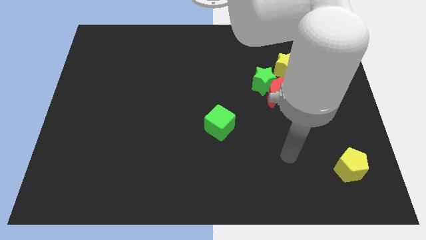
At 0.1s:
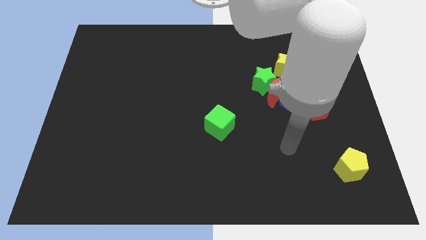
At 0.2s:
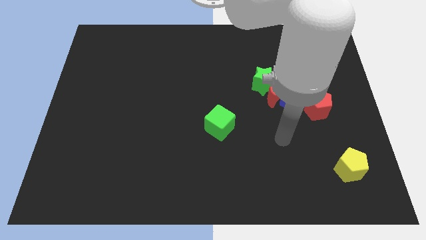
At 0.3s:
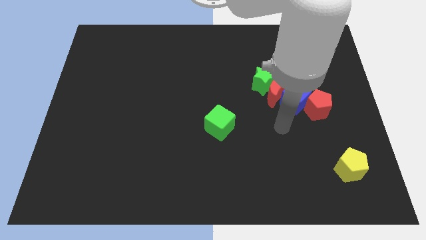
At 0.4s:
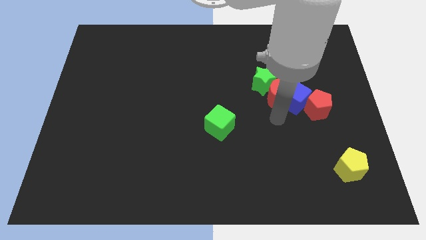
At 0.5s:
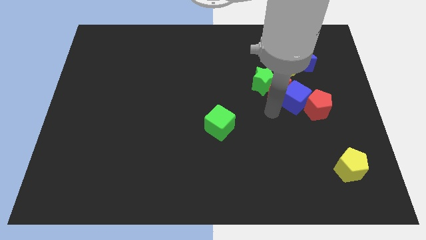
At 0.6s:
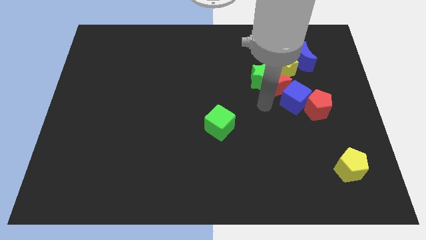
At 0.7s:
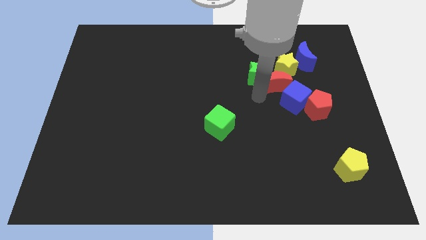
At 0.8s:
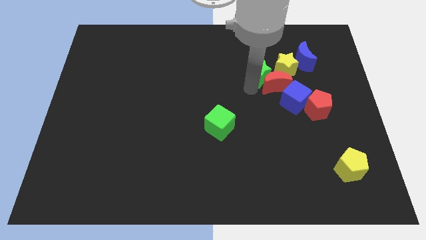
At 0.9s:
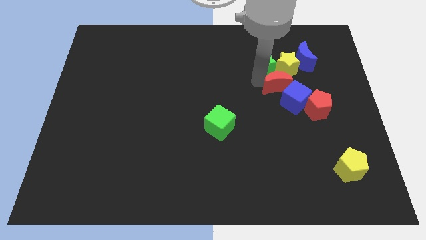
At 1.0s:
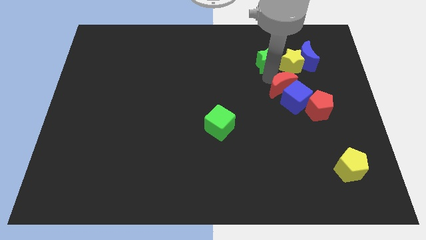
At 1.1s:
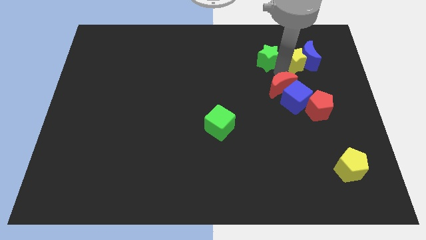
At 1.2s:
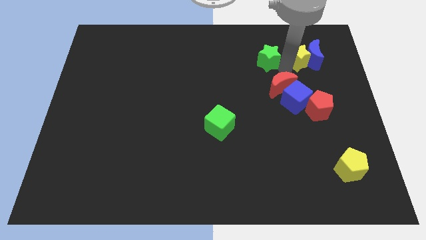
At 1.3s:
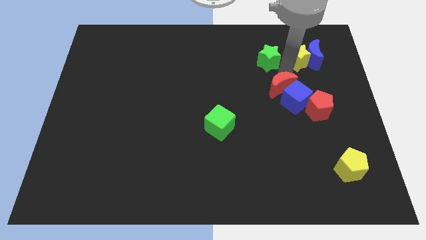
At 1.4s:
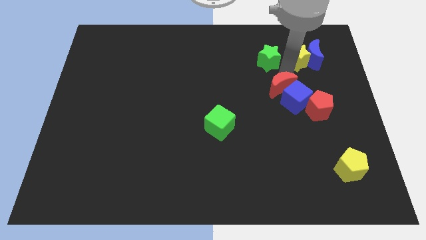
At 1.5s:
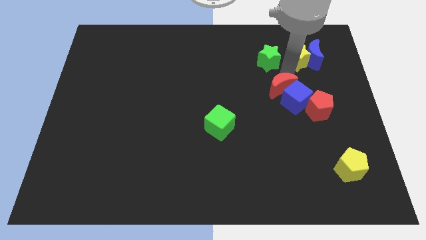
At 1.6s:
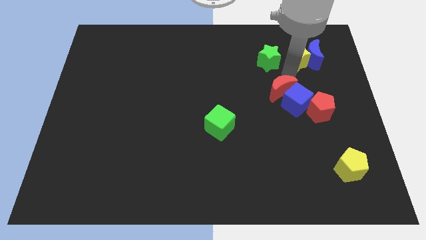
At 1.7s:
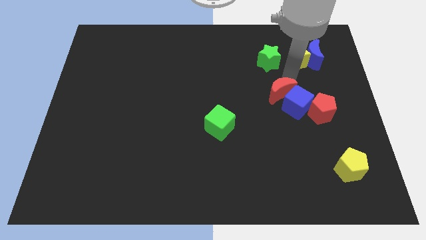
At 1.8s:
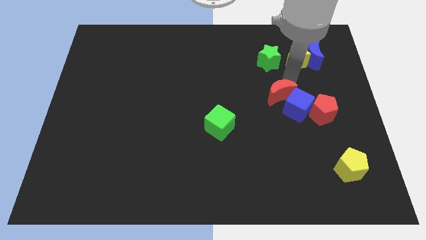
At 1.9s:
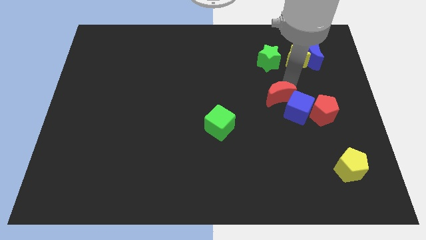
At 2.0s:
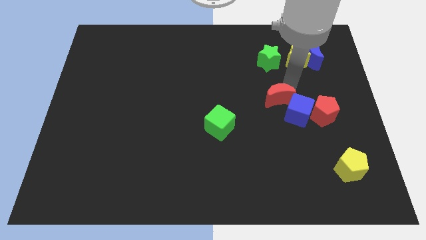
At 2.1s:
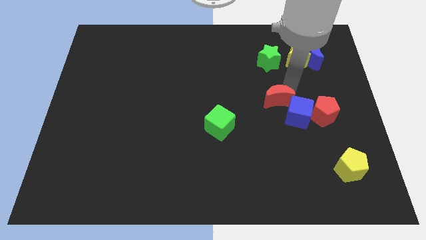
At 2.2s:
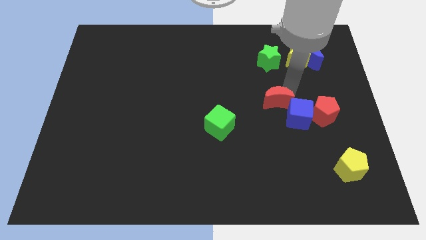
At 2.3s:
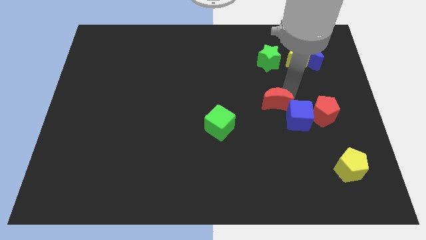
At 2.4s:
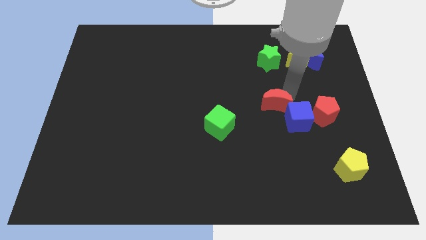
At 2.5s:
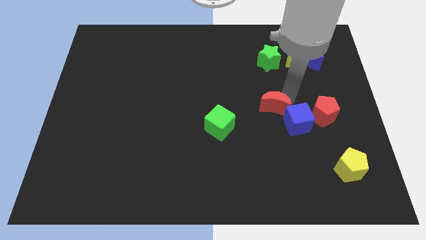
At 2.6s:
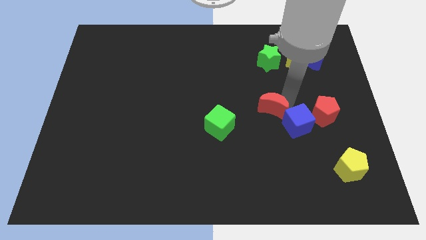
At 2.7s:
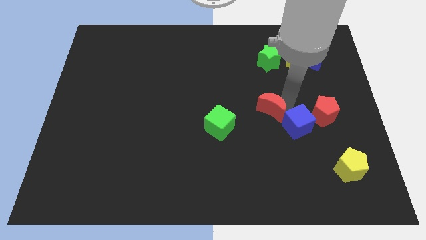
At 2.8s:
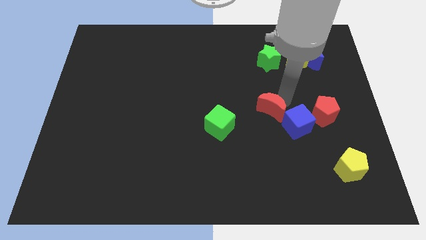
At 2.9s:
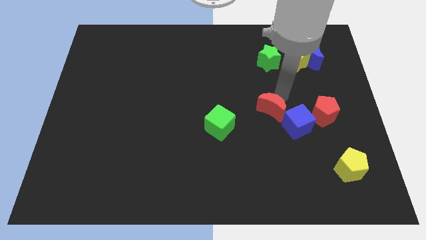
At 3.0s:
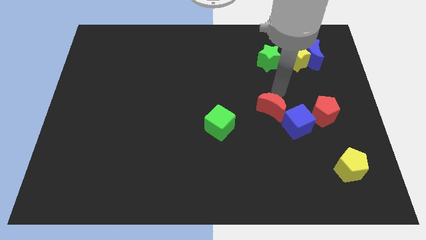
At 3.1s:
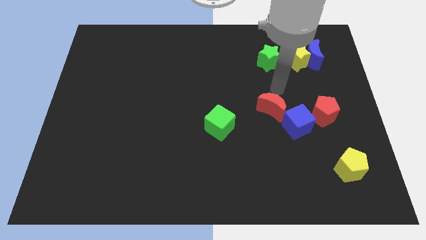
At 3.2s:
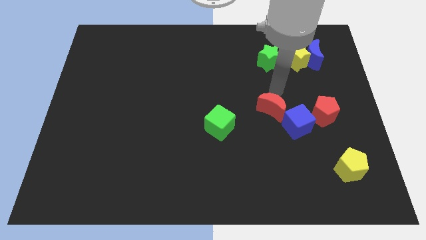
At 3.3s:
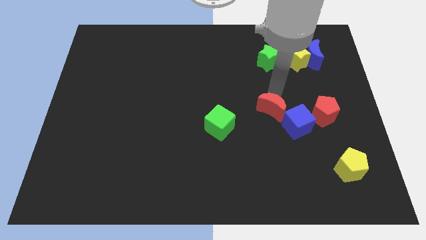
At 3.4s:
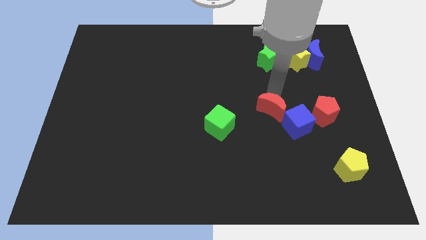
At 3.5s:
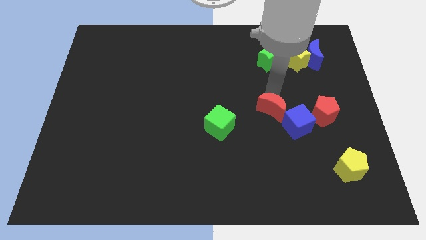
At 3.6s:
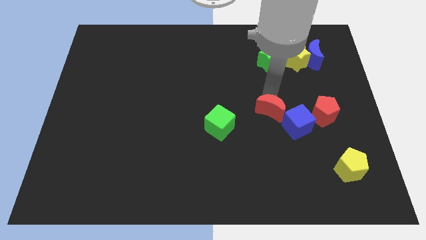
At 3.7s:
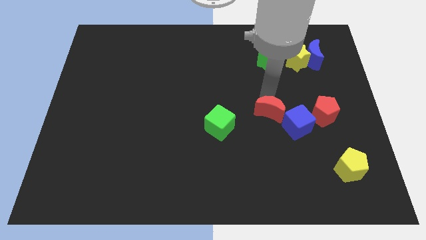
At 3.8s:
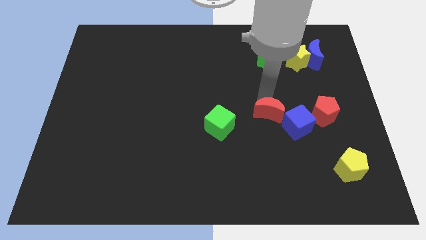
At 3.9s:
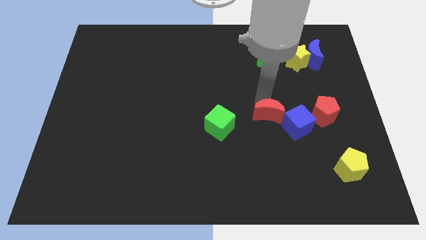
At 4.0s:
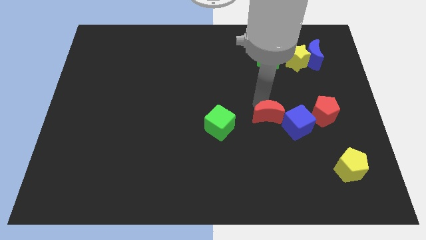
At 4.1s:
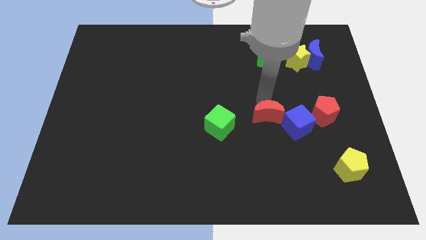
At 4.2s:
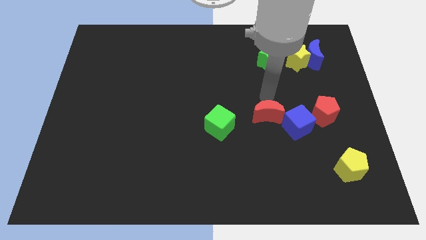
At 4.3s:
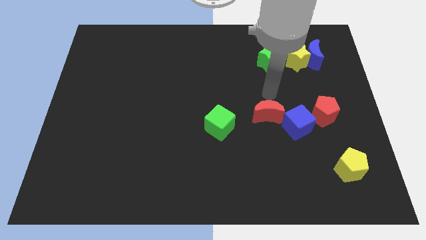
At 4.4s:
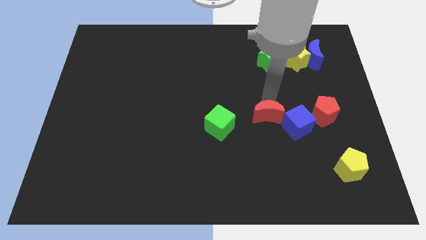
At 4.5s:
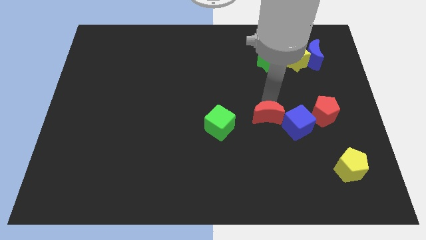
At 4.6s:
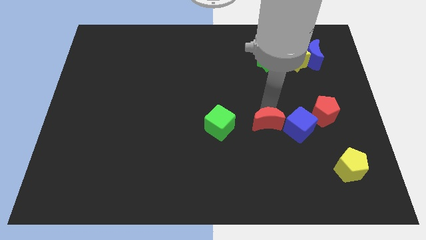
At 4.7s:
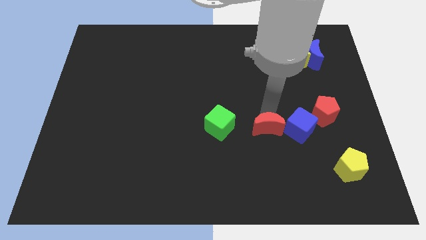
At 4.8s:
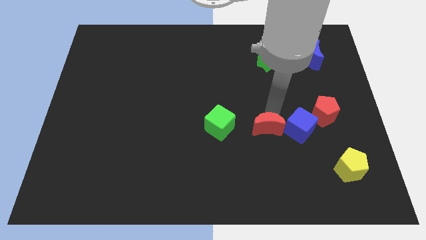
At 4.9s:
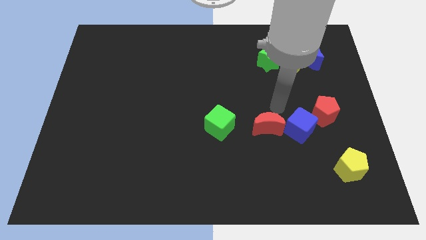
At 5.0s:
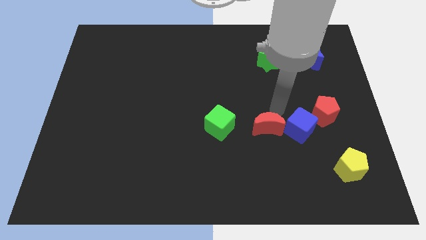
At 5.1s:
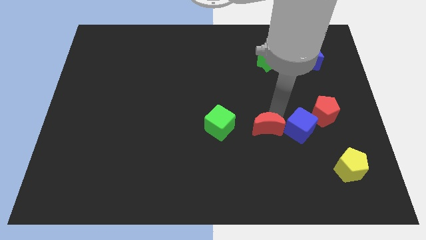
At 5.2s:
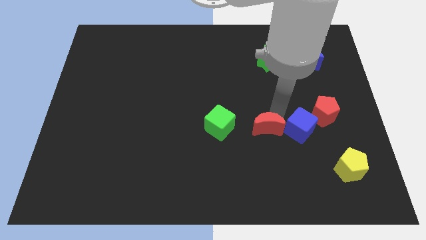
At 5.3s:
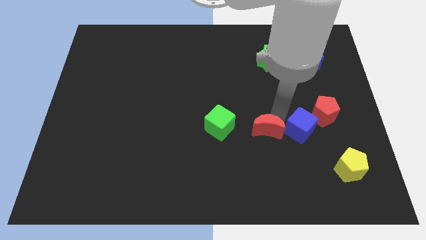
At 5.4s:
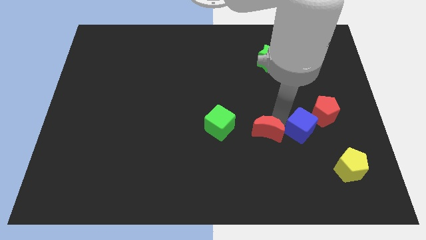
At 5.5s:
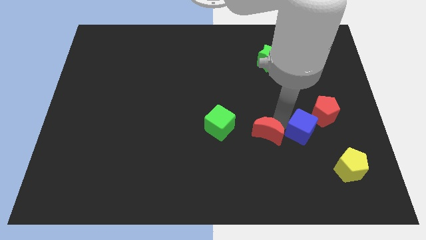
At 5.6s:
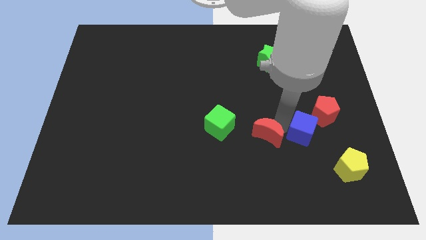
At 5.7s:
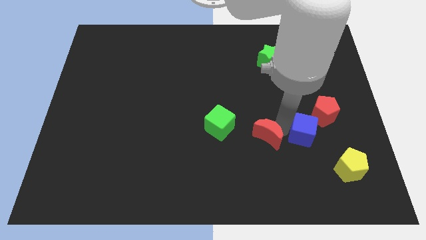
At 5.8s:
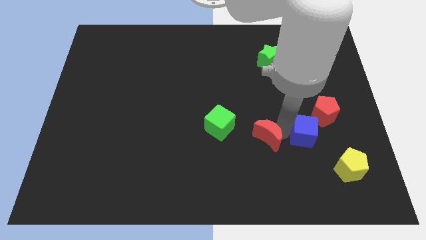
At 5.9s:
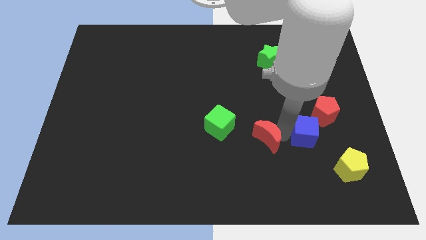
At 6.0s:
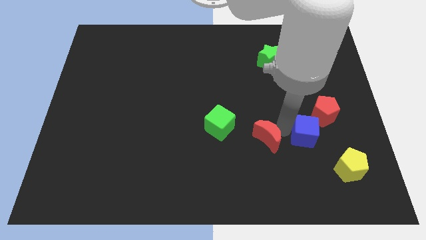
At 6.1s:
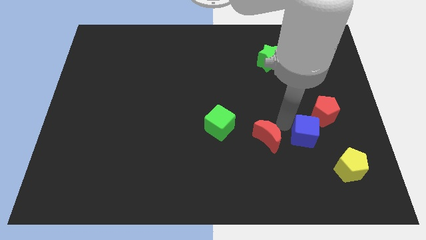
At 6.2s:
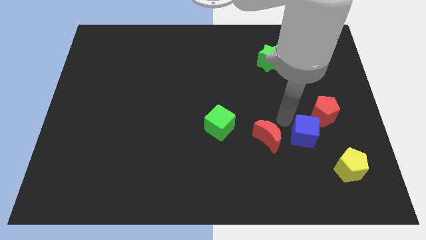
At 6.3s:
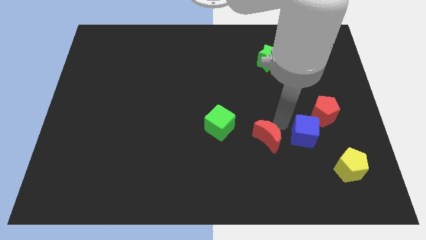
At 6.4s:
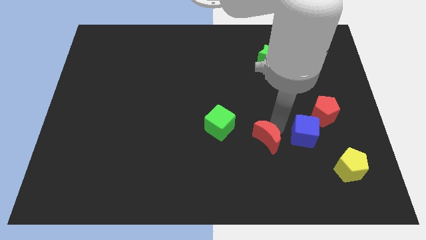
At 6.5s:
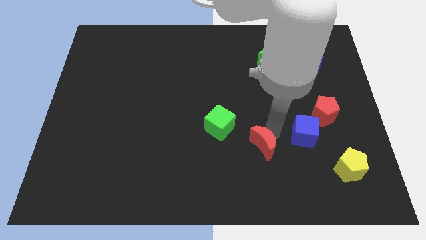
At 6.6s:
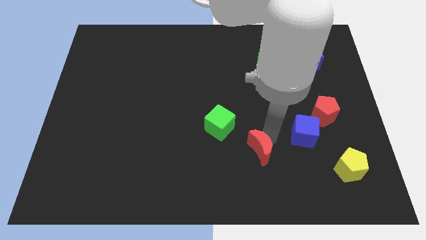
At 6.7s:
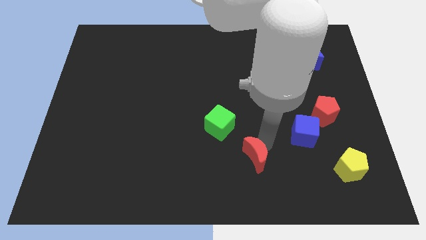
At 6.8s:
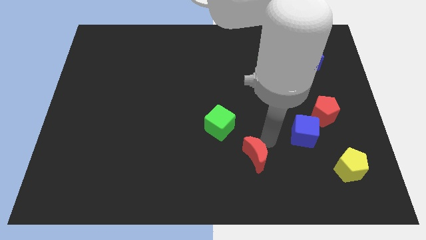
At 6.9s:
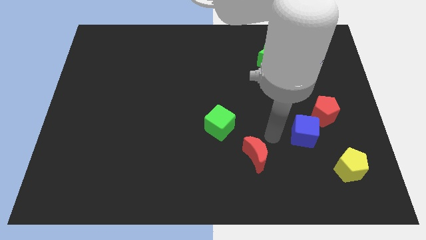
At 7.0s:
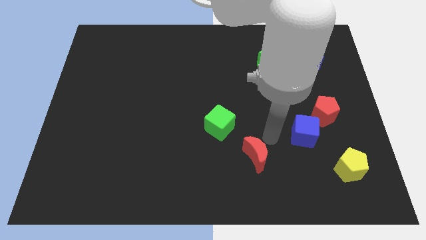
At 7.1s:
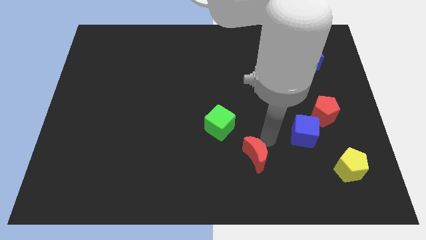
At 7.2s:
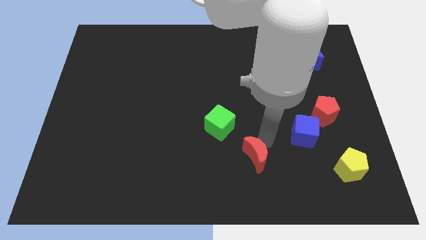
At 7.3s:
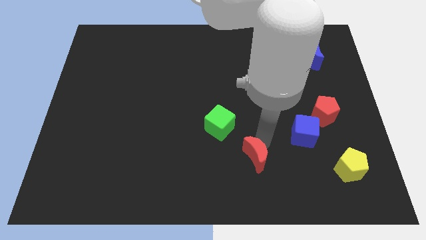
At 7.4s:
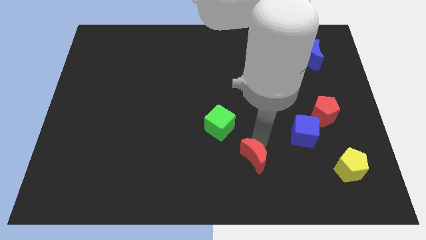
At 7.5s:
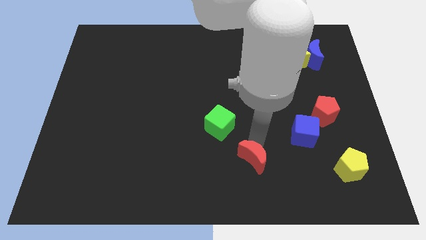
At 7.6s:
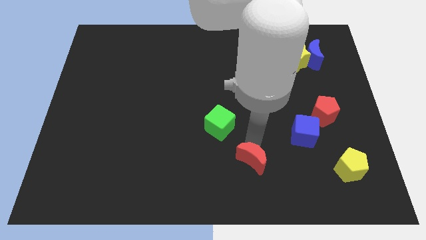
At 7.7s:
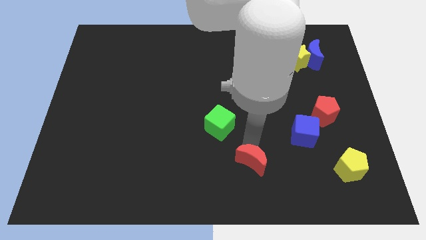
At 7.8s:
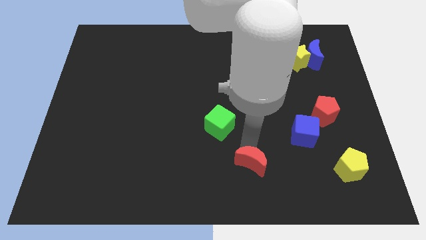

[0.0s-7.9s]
put the red moon to the bottom
